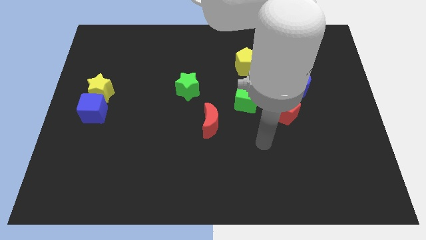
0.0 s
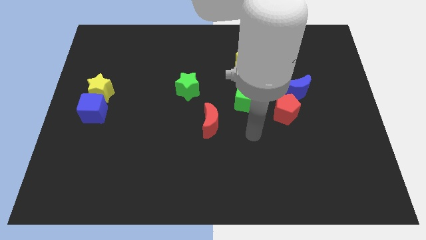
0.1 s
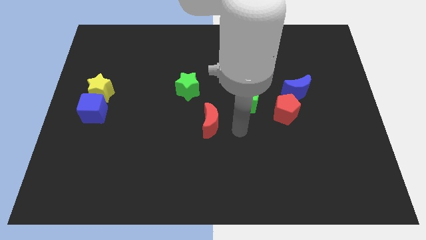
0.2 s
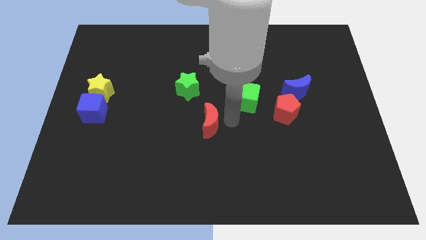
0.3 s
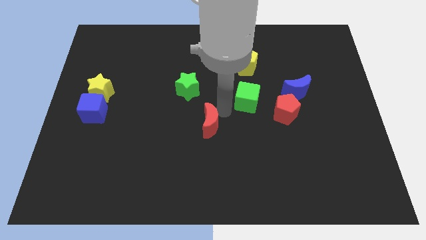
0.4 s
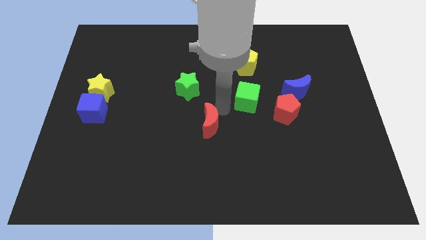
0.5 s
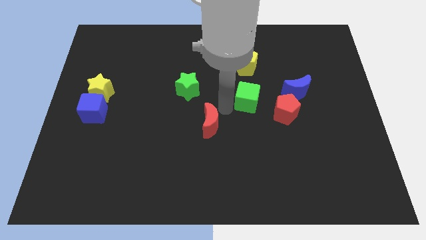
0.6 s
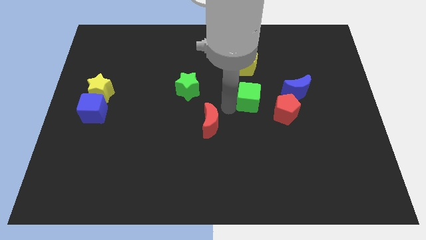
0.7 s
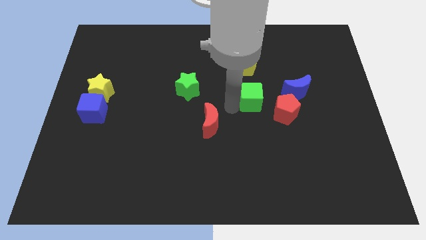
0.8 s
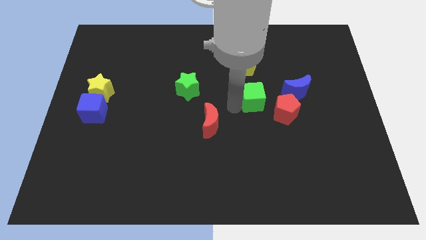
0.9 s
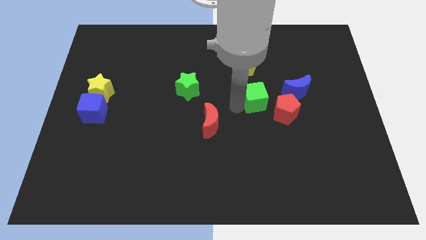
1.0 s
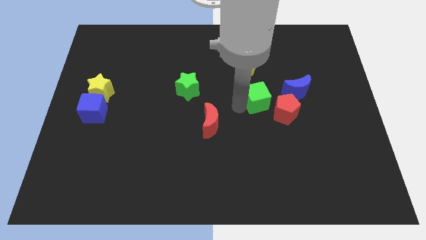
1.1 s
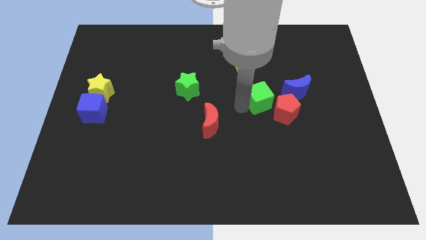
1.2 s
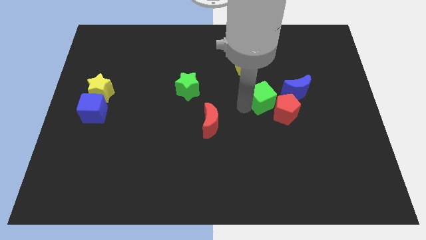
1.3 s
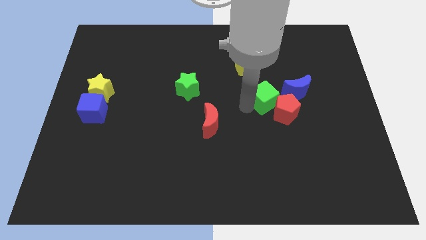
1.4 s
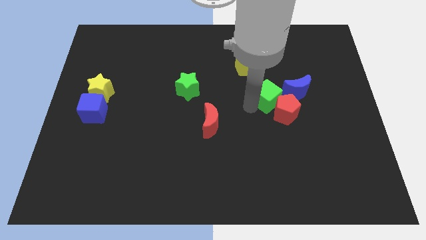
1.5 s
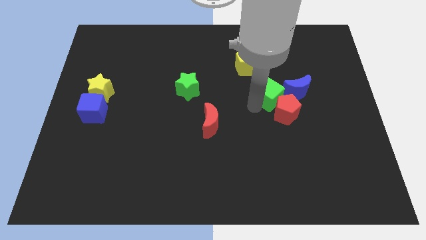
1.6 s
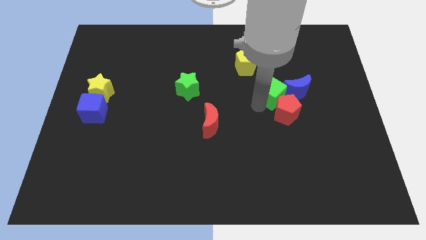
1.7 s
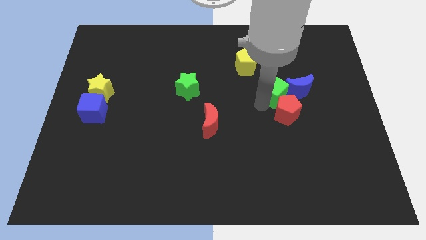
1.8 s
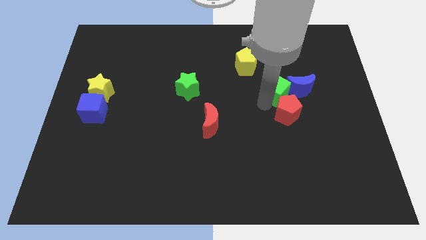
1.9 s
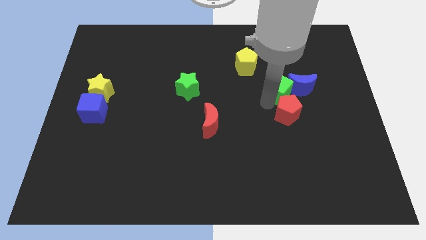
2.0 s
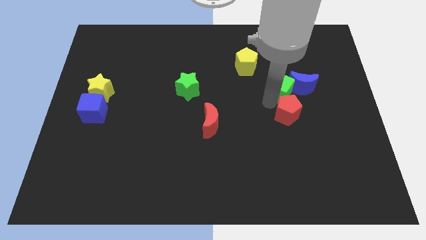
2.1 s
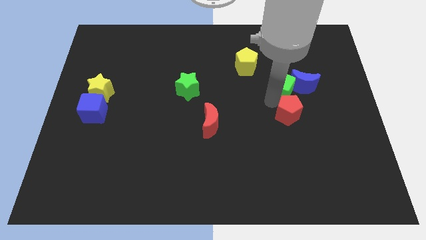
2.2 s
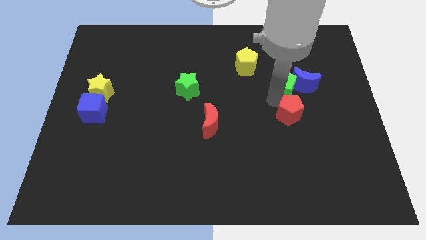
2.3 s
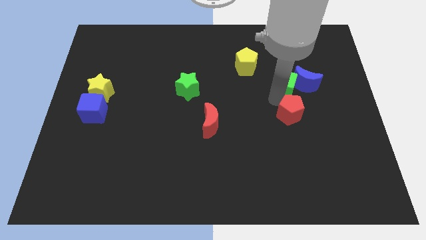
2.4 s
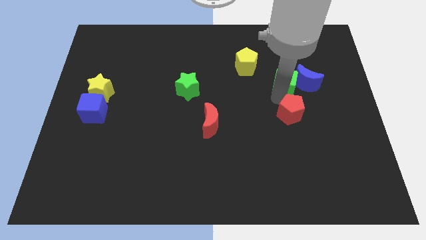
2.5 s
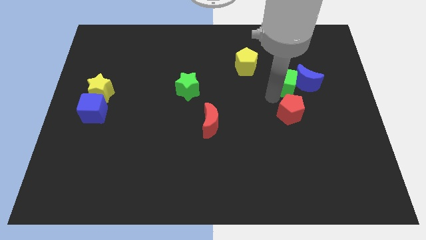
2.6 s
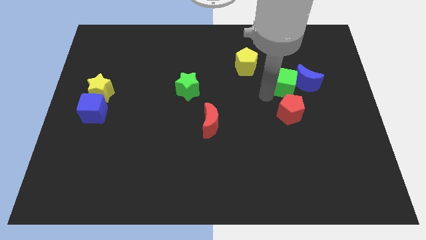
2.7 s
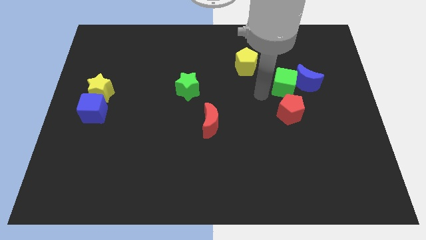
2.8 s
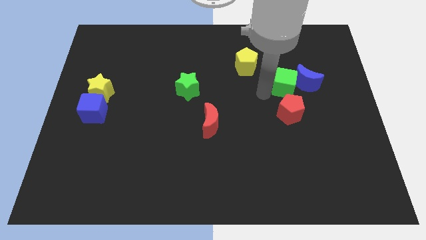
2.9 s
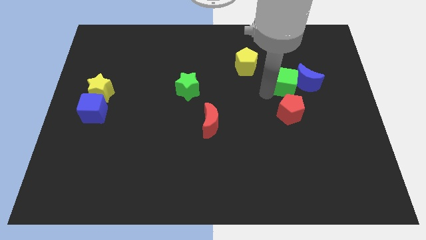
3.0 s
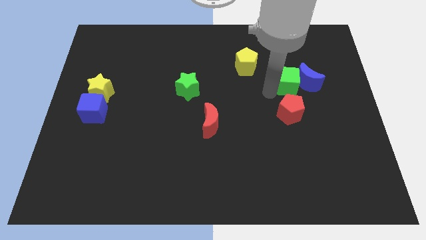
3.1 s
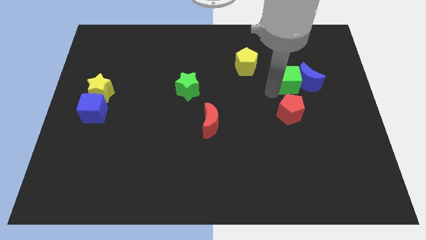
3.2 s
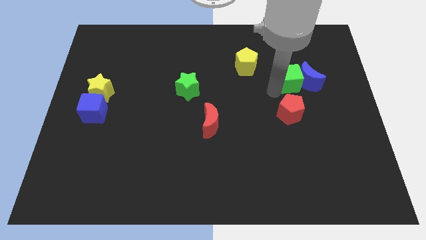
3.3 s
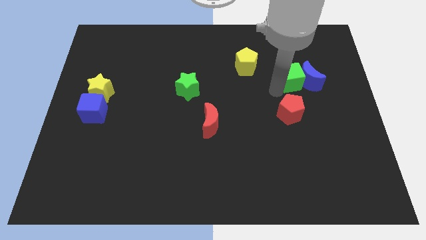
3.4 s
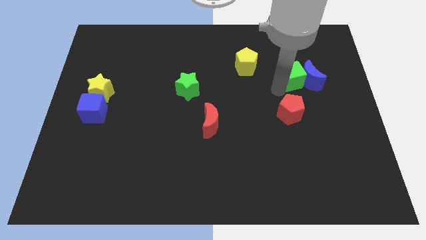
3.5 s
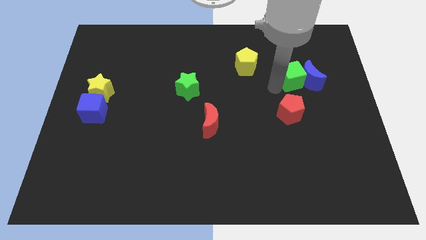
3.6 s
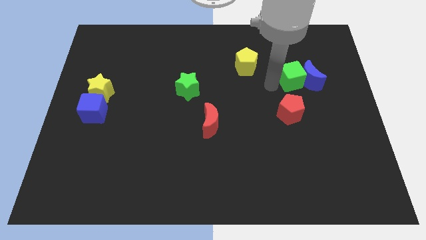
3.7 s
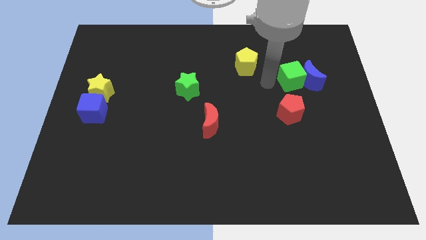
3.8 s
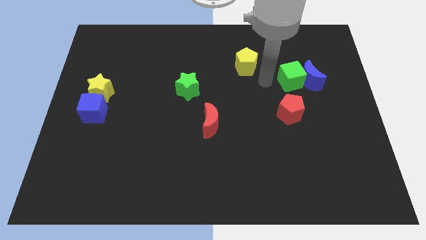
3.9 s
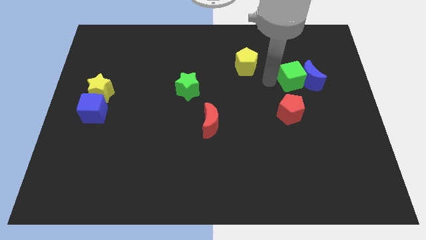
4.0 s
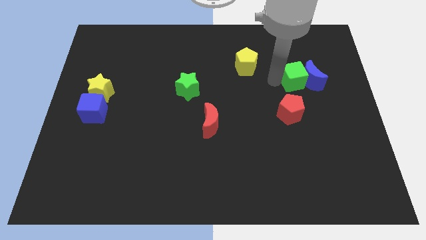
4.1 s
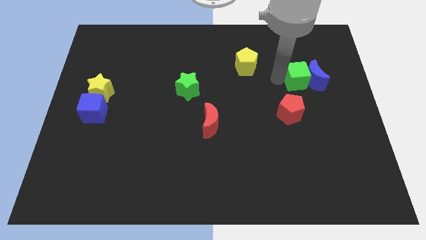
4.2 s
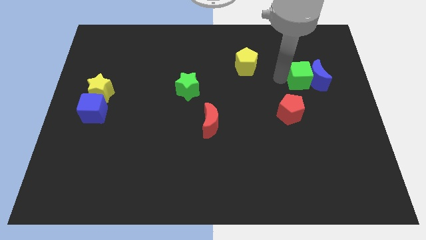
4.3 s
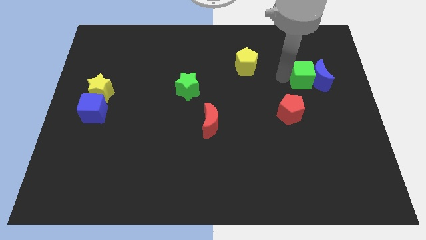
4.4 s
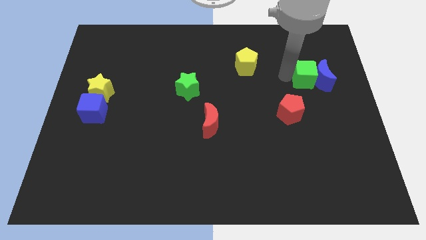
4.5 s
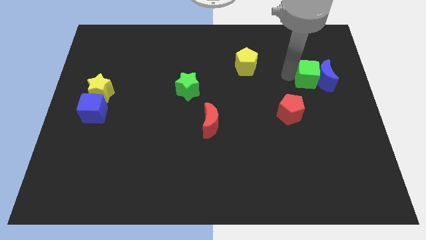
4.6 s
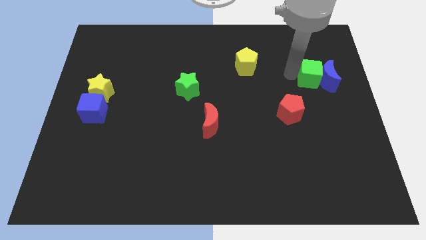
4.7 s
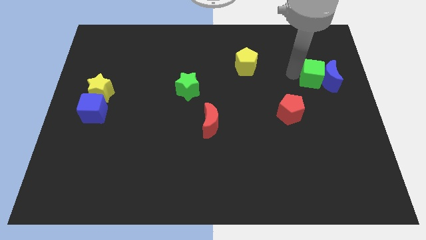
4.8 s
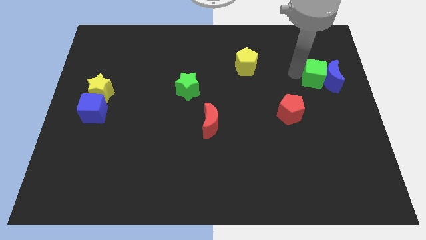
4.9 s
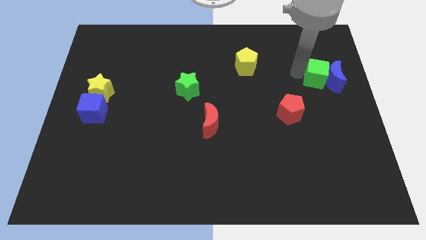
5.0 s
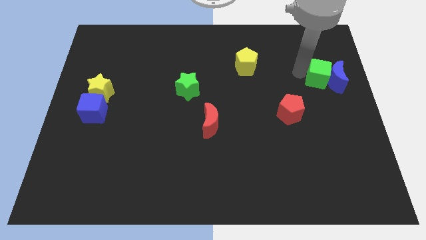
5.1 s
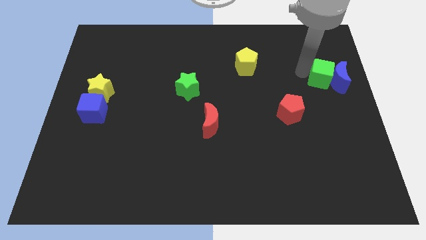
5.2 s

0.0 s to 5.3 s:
move the green cube to the center right

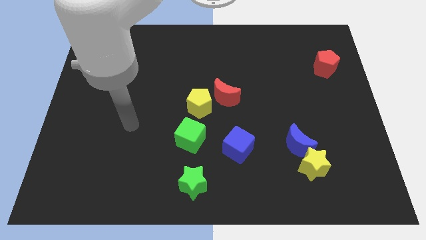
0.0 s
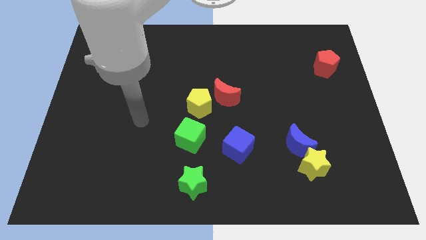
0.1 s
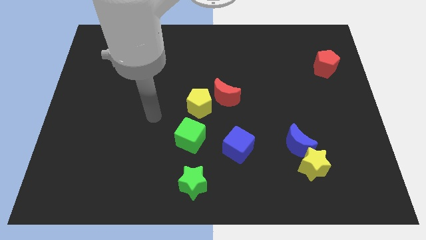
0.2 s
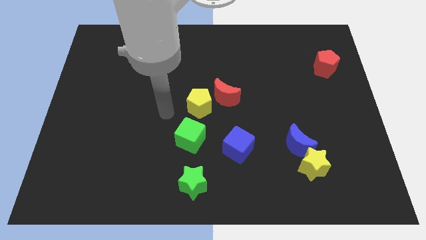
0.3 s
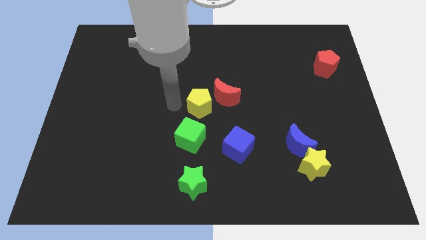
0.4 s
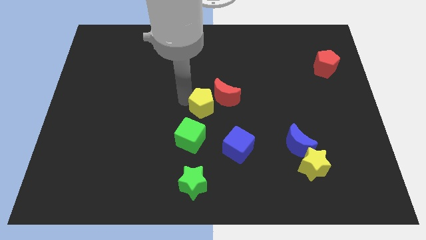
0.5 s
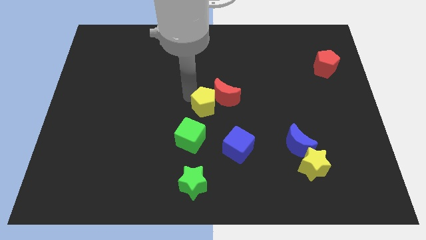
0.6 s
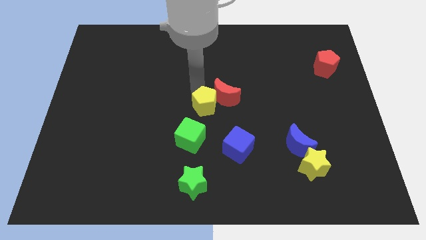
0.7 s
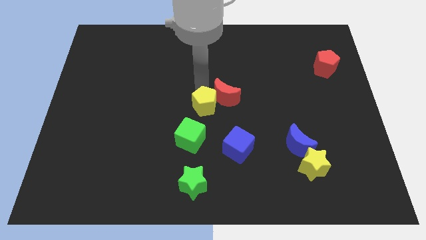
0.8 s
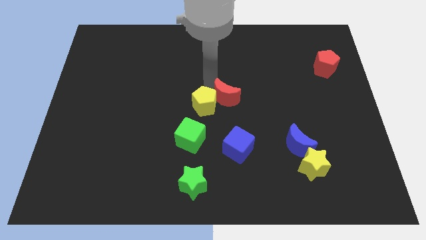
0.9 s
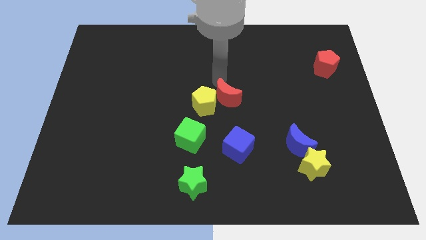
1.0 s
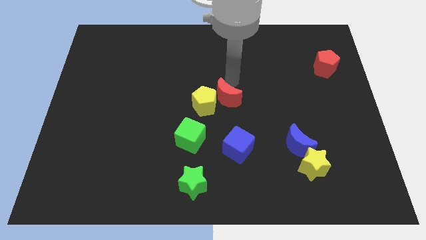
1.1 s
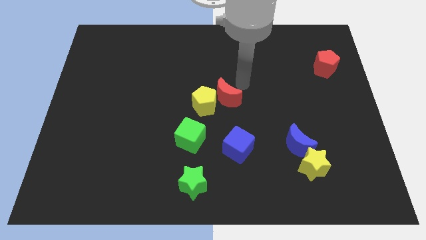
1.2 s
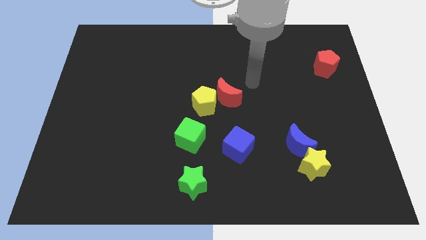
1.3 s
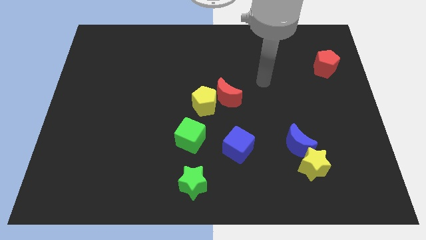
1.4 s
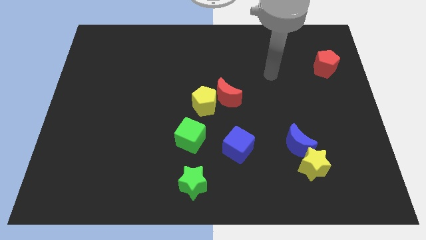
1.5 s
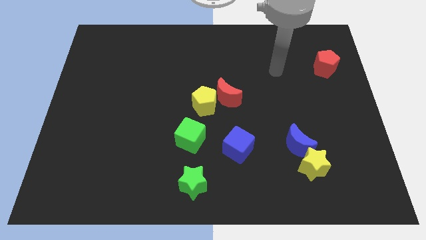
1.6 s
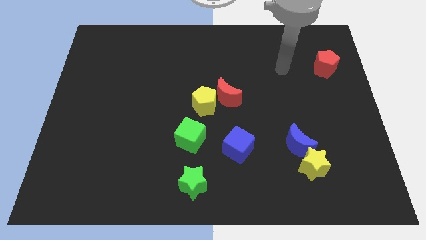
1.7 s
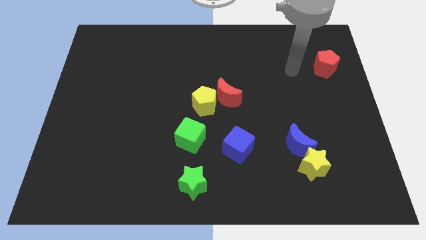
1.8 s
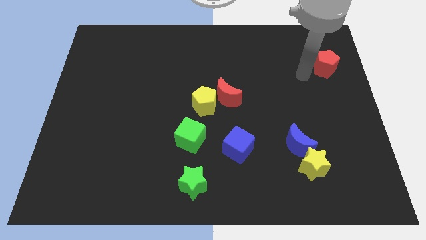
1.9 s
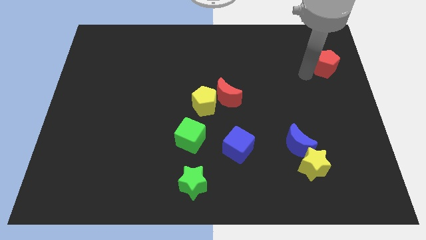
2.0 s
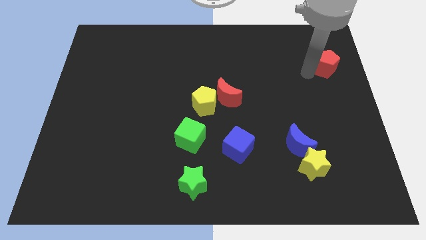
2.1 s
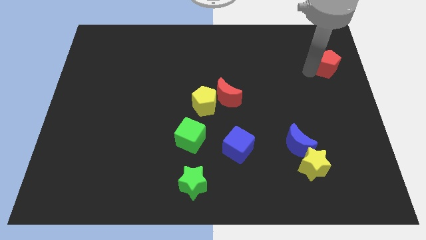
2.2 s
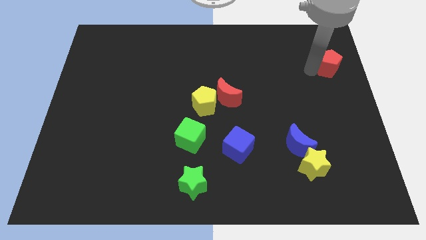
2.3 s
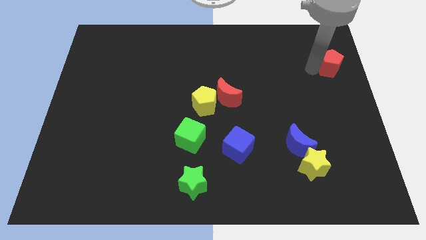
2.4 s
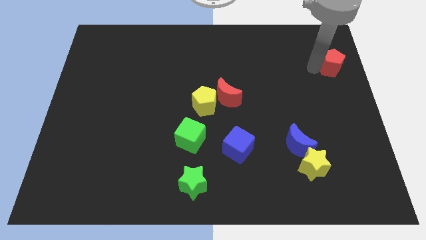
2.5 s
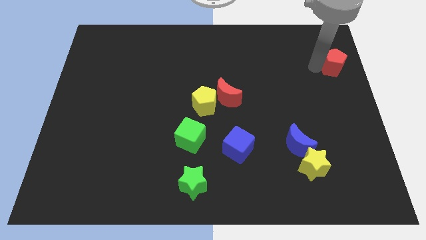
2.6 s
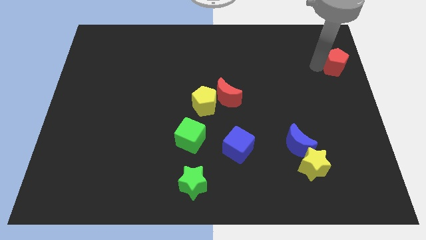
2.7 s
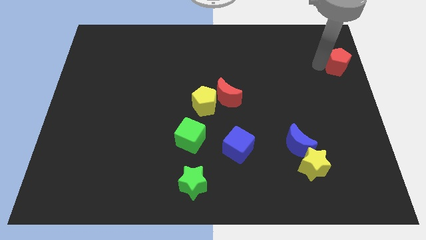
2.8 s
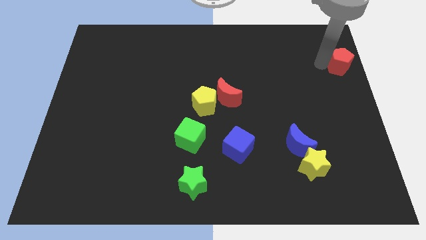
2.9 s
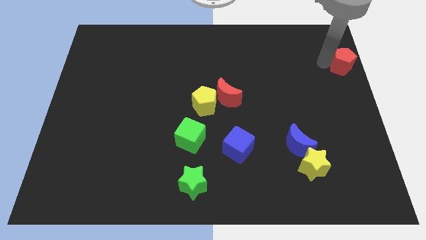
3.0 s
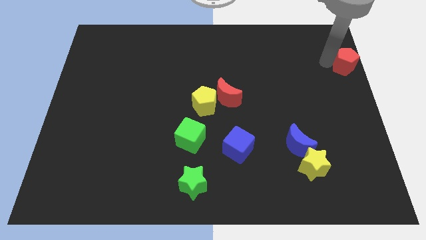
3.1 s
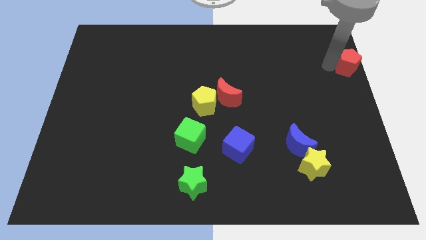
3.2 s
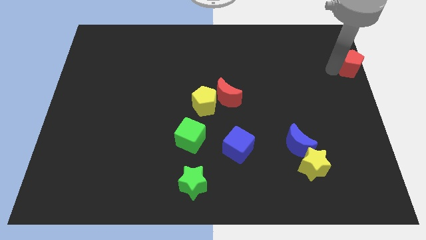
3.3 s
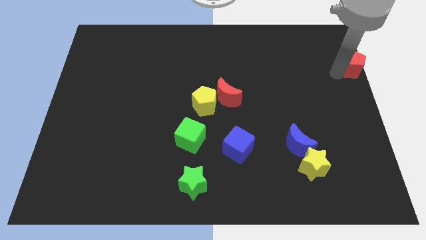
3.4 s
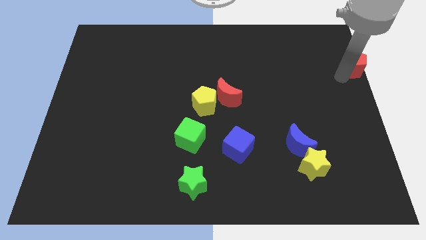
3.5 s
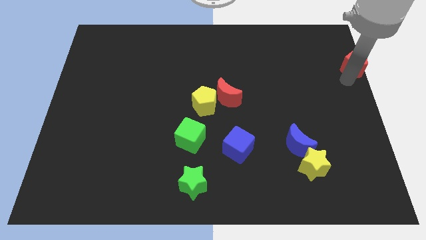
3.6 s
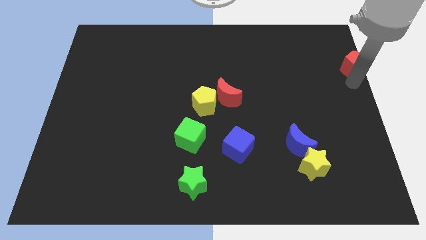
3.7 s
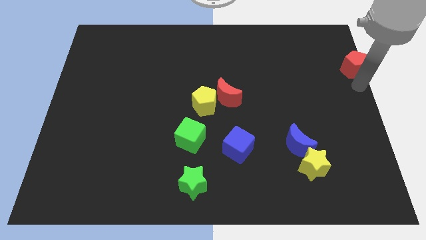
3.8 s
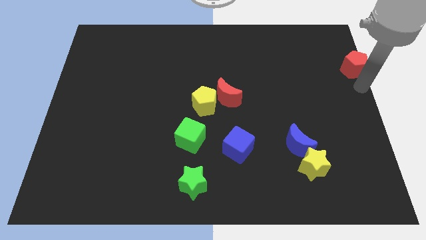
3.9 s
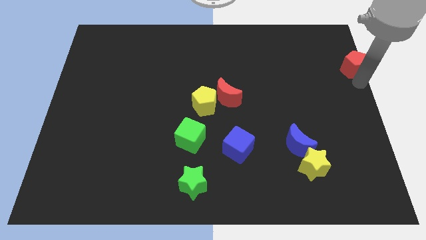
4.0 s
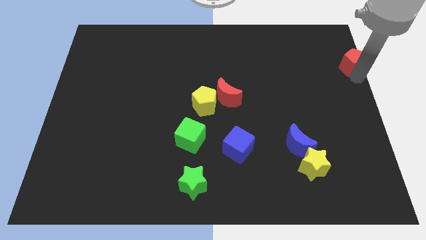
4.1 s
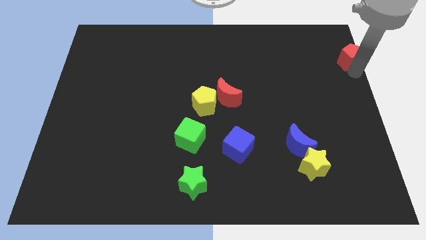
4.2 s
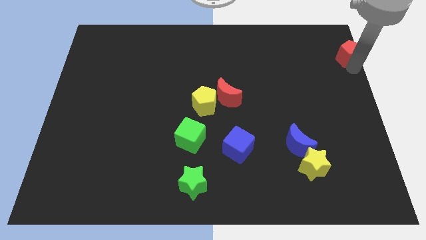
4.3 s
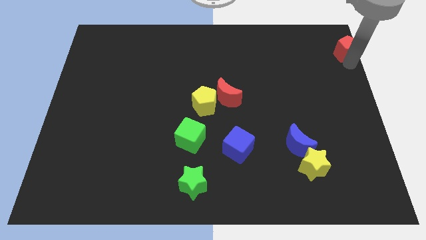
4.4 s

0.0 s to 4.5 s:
slide the red pentagon to the top right of the board
